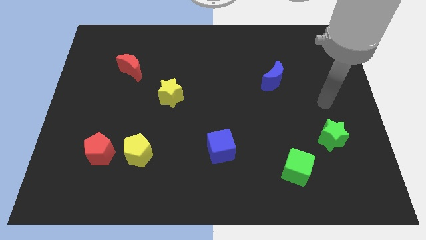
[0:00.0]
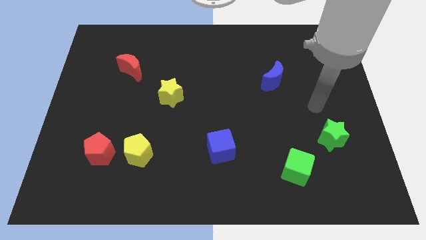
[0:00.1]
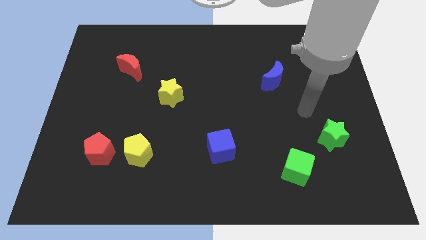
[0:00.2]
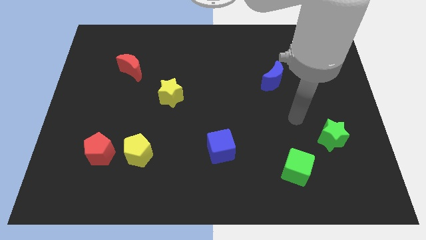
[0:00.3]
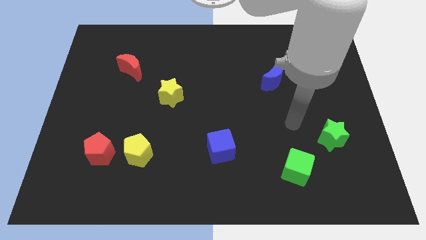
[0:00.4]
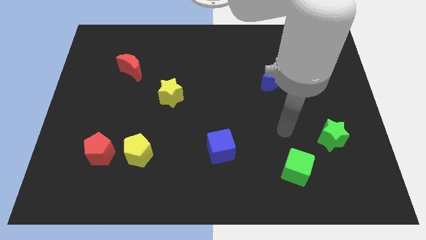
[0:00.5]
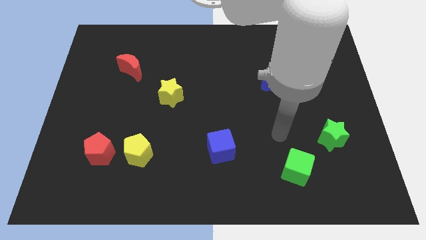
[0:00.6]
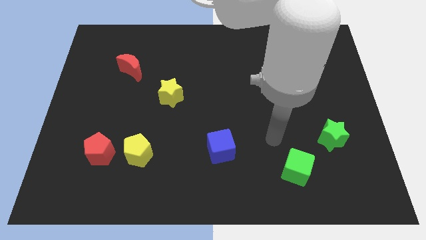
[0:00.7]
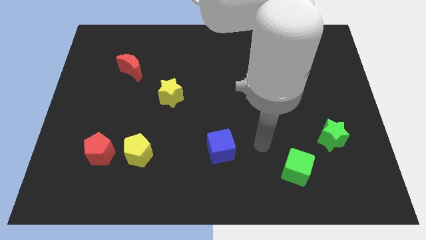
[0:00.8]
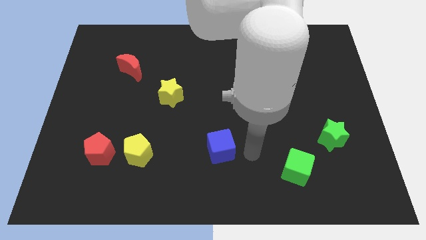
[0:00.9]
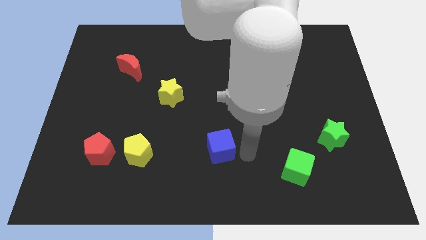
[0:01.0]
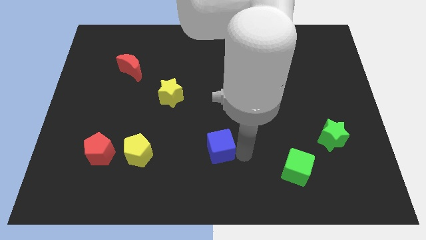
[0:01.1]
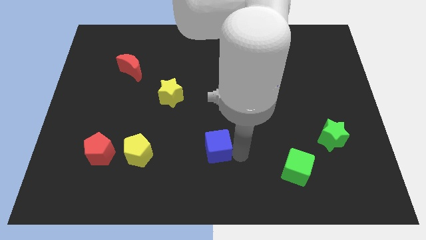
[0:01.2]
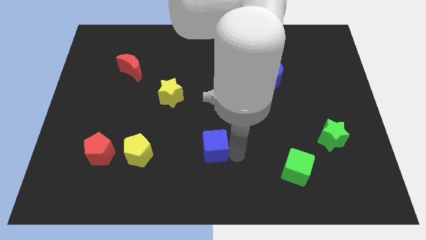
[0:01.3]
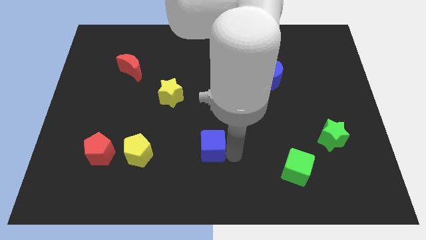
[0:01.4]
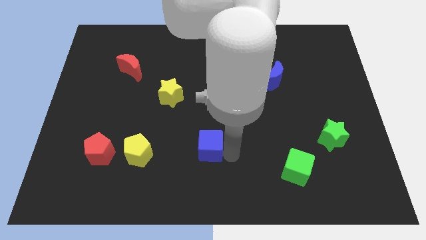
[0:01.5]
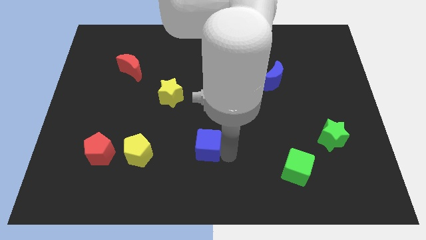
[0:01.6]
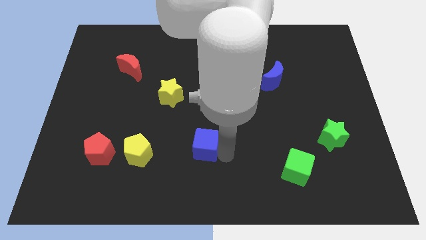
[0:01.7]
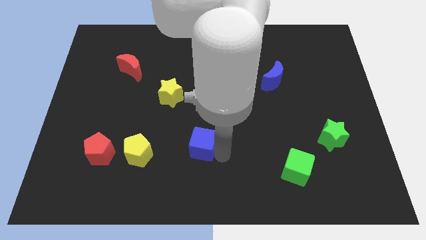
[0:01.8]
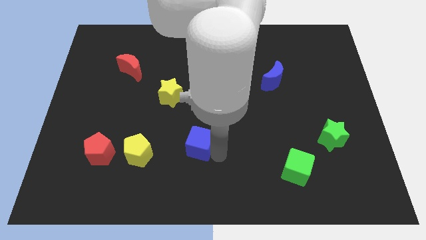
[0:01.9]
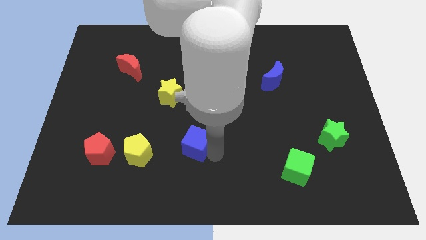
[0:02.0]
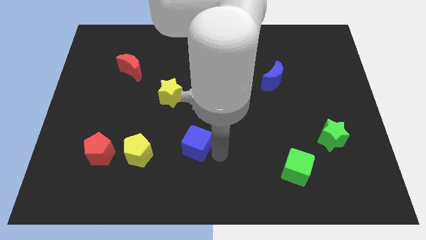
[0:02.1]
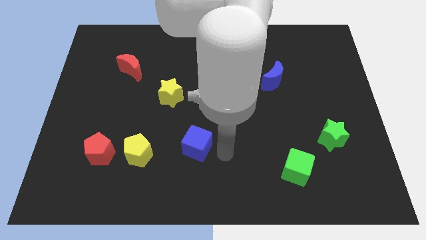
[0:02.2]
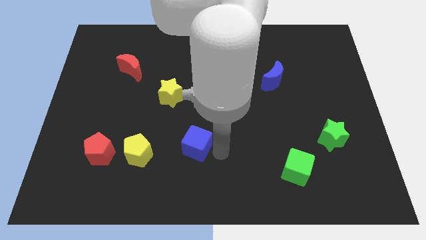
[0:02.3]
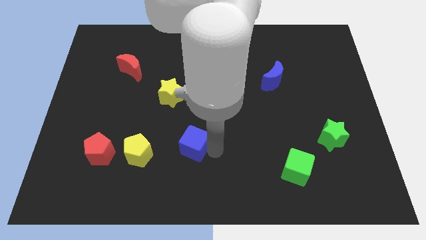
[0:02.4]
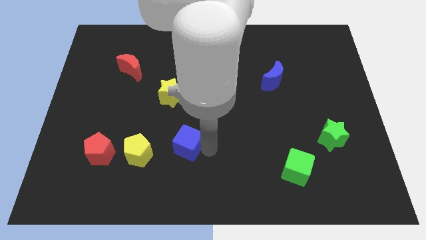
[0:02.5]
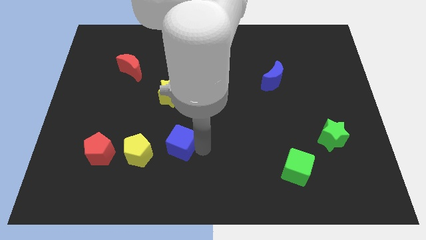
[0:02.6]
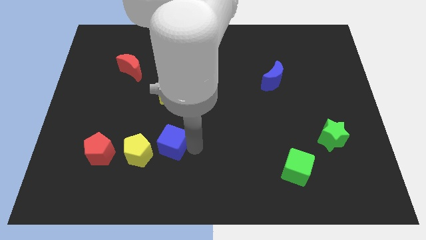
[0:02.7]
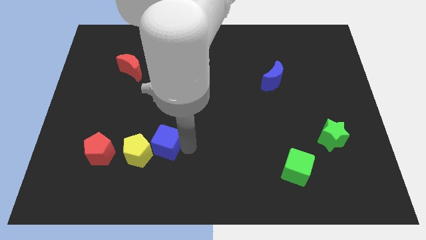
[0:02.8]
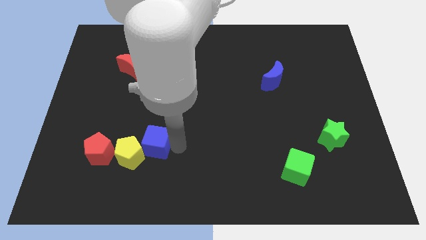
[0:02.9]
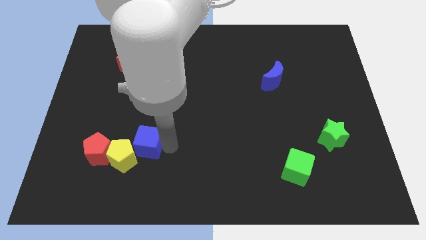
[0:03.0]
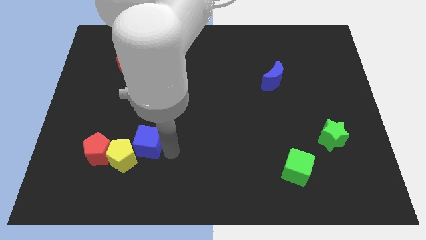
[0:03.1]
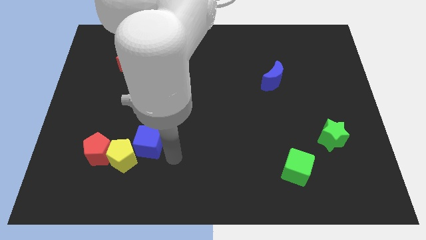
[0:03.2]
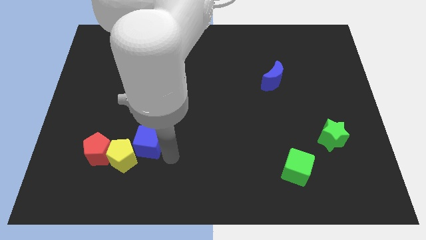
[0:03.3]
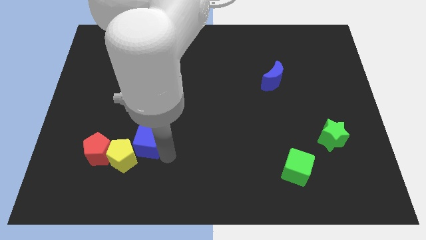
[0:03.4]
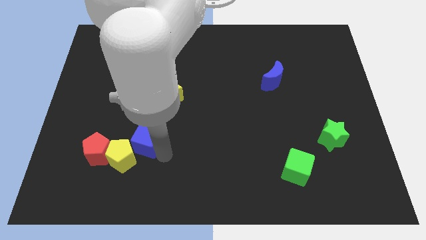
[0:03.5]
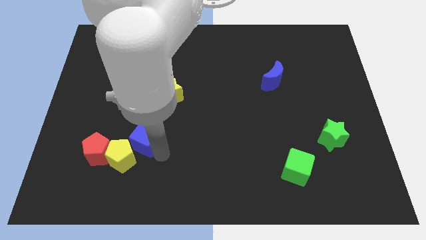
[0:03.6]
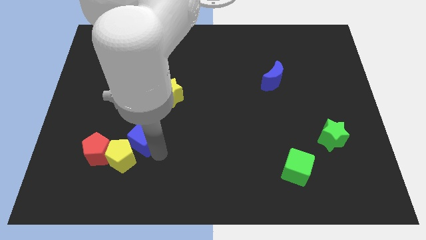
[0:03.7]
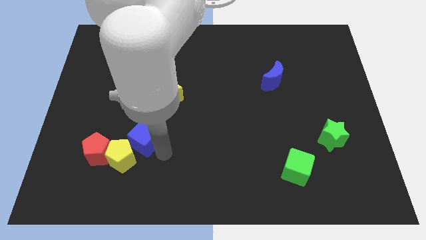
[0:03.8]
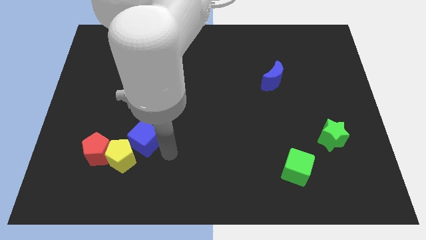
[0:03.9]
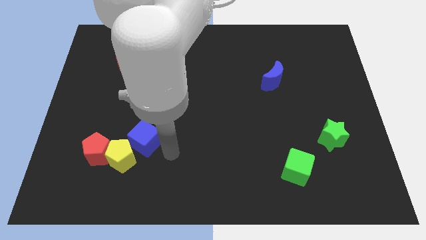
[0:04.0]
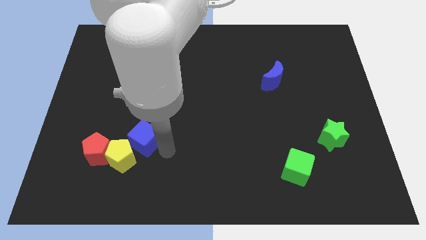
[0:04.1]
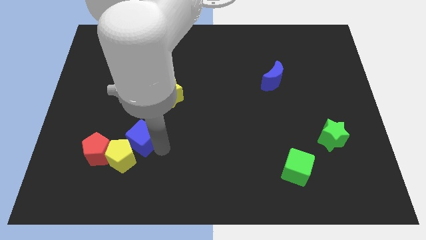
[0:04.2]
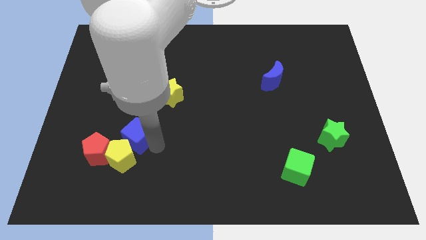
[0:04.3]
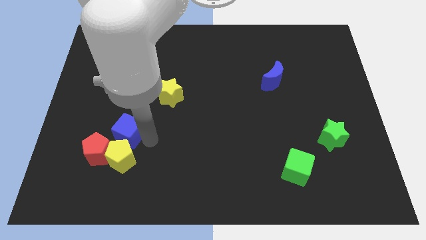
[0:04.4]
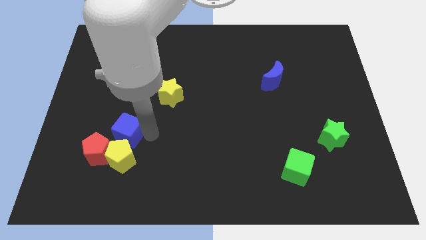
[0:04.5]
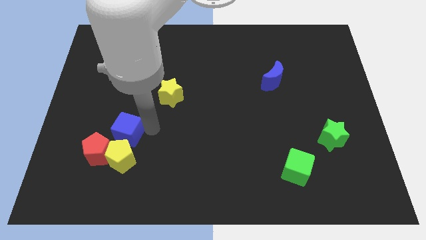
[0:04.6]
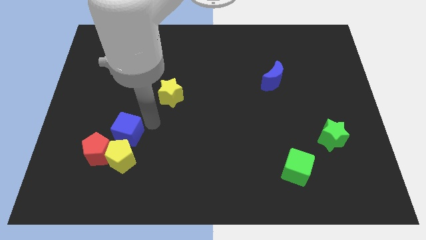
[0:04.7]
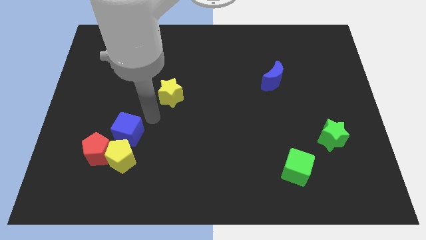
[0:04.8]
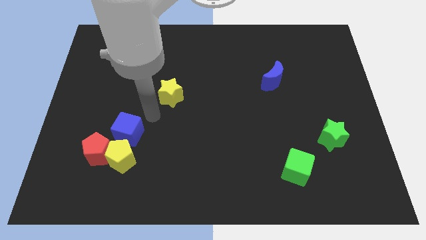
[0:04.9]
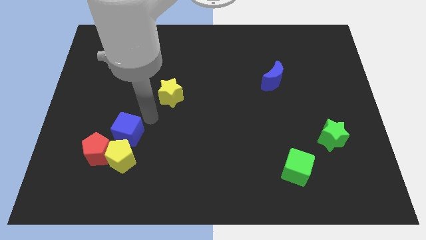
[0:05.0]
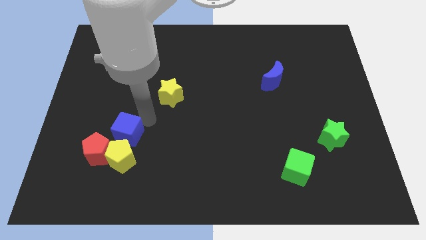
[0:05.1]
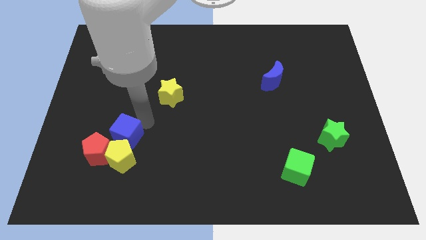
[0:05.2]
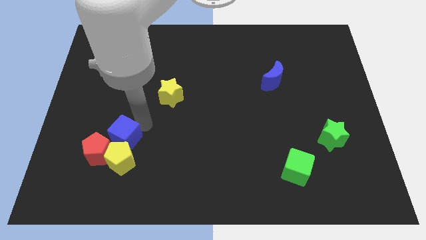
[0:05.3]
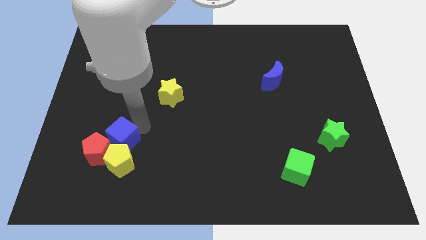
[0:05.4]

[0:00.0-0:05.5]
put the blue cube next to the red pentagon

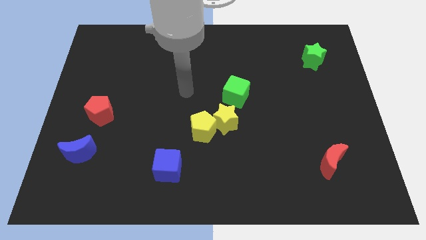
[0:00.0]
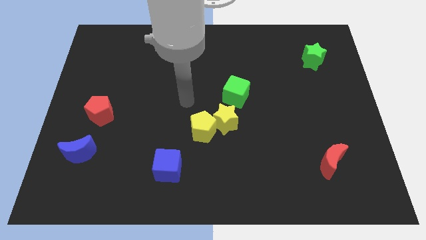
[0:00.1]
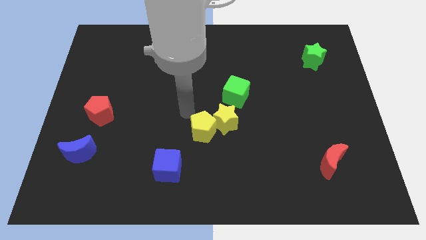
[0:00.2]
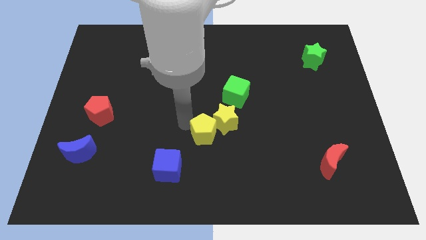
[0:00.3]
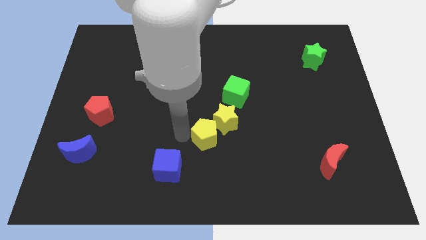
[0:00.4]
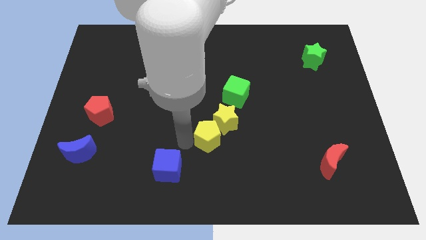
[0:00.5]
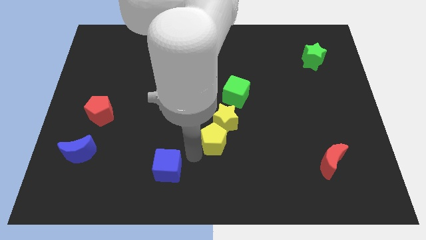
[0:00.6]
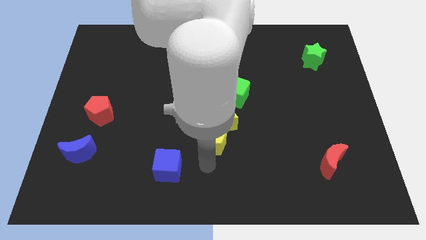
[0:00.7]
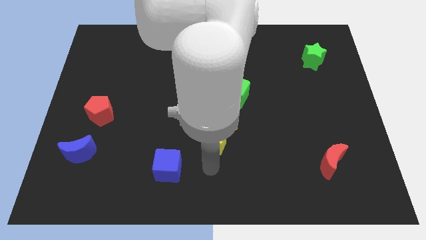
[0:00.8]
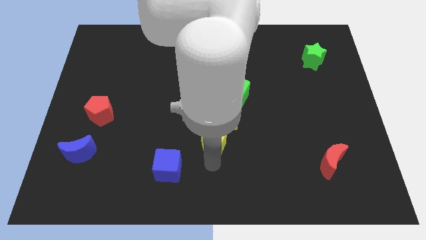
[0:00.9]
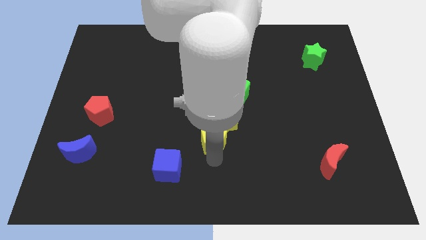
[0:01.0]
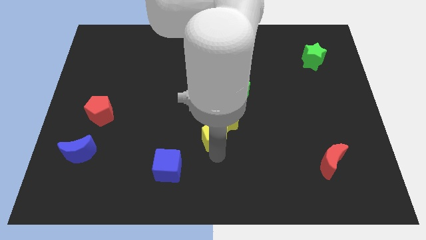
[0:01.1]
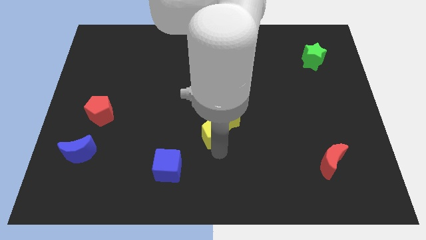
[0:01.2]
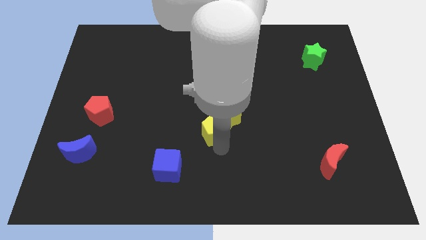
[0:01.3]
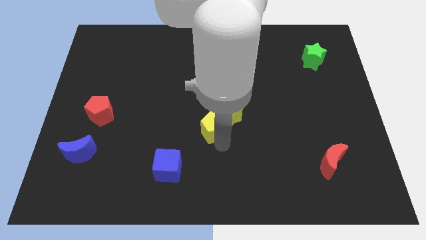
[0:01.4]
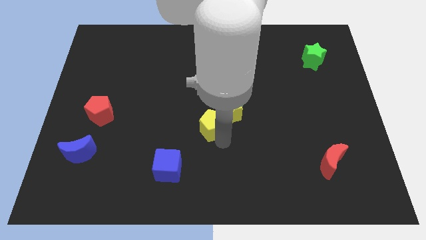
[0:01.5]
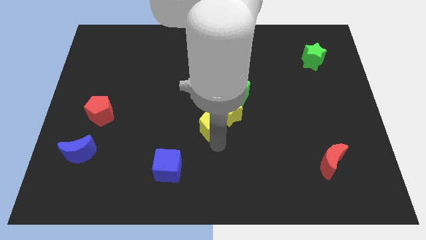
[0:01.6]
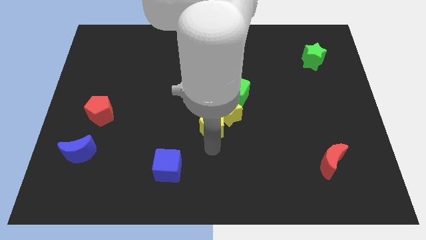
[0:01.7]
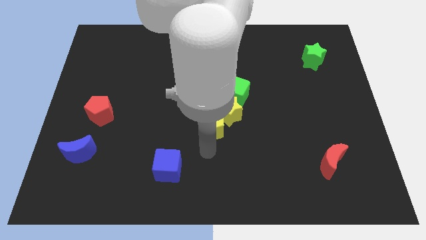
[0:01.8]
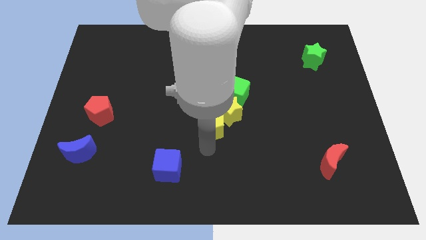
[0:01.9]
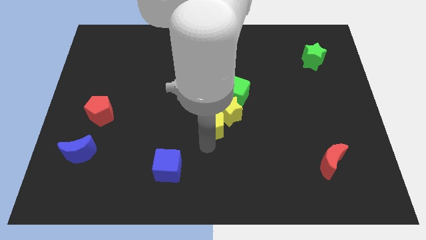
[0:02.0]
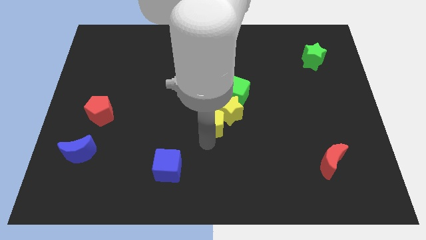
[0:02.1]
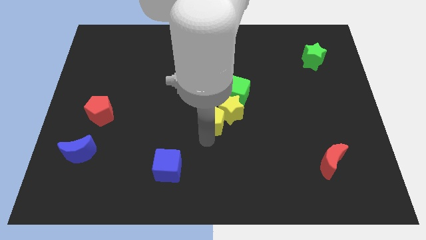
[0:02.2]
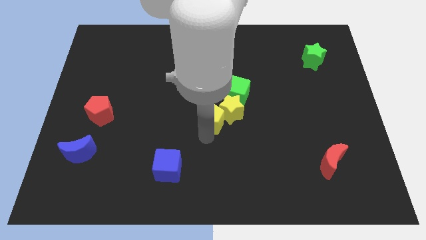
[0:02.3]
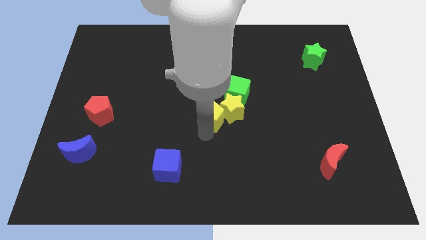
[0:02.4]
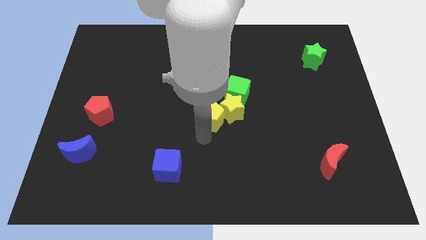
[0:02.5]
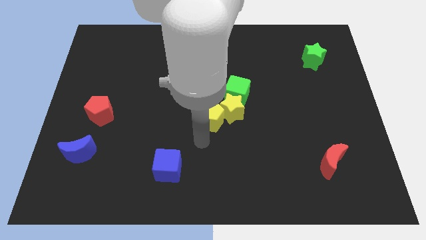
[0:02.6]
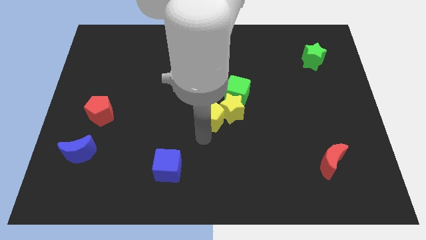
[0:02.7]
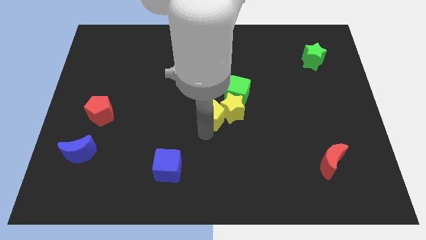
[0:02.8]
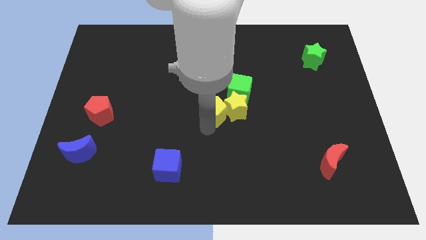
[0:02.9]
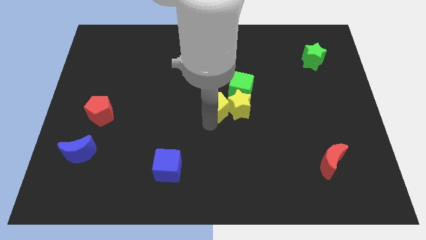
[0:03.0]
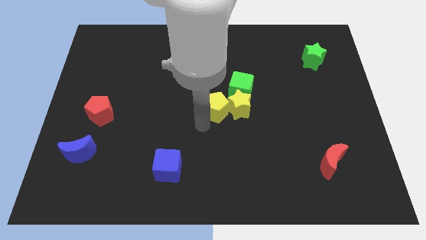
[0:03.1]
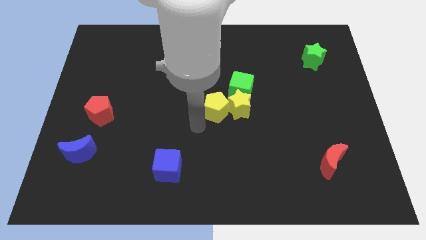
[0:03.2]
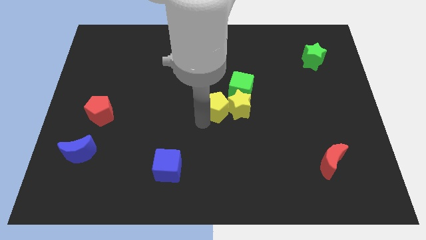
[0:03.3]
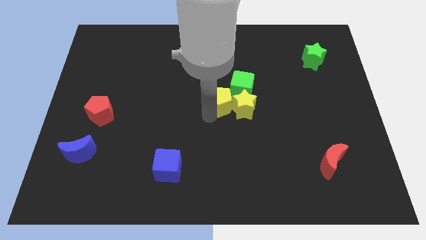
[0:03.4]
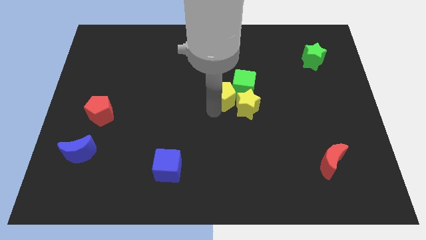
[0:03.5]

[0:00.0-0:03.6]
slide the yellow pentagon towards the green cube
